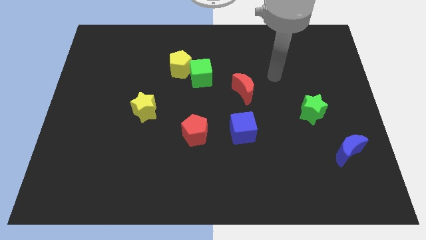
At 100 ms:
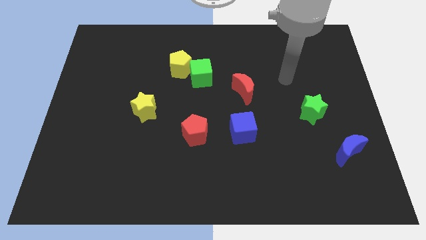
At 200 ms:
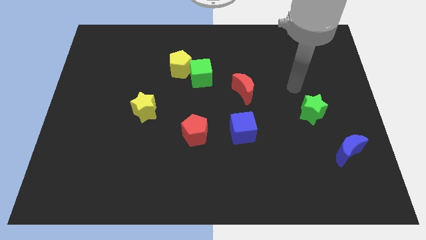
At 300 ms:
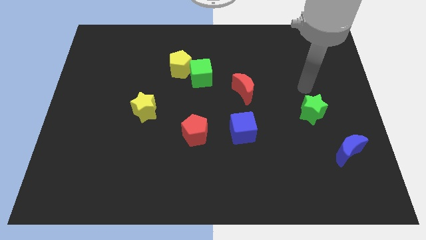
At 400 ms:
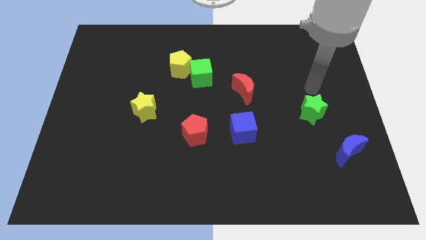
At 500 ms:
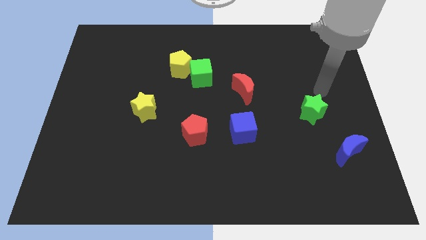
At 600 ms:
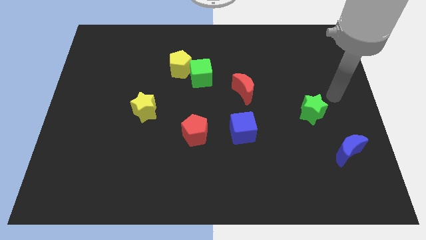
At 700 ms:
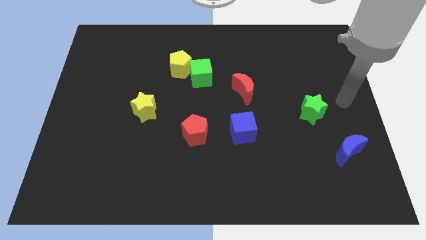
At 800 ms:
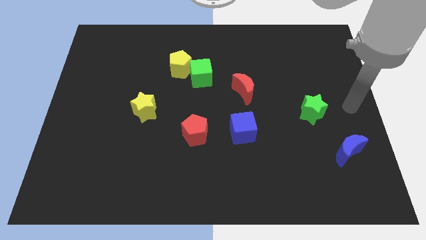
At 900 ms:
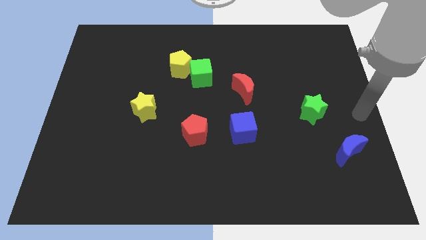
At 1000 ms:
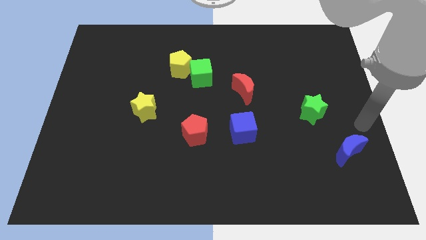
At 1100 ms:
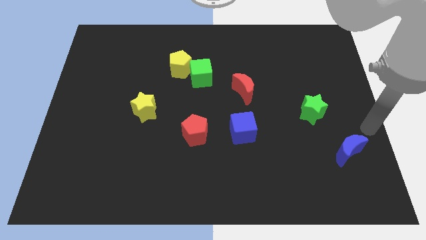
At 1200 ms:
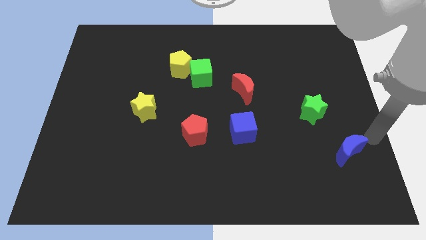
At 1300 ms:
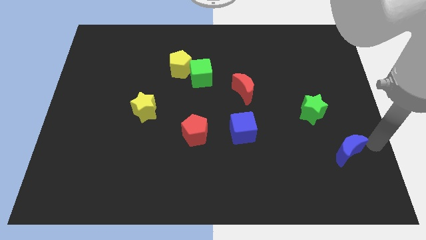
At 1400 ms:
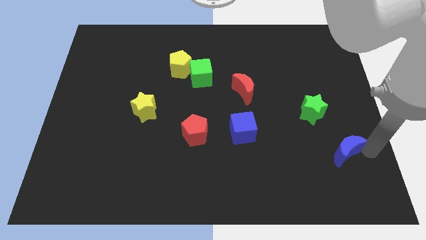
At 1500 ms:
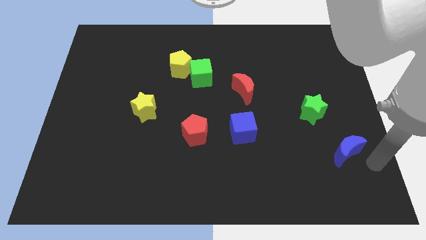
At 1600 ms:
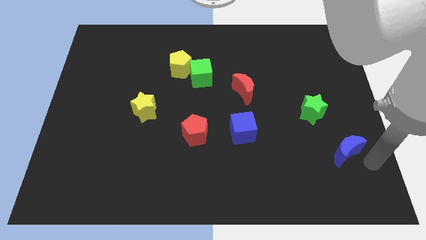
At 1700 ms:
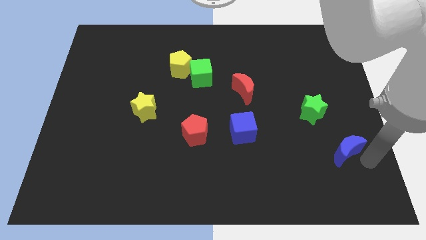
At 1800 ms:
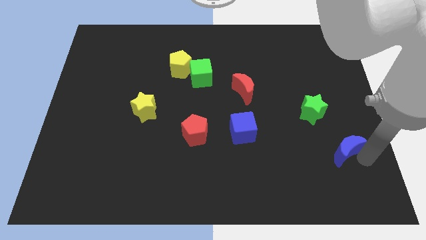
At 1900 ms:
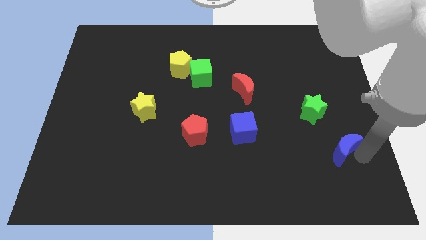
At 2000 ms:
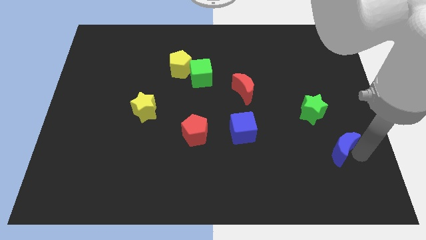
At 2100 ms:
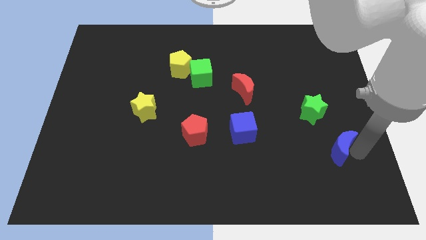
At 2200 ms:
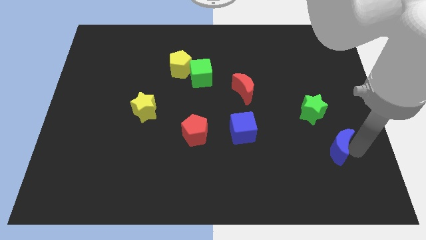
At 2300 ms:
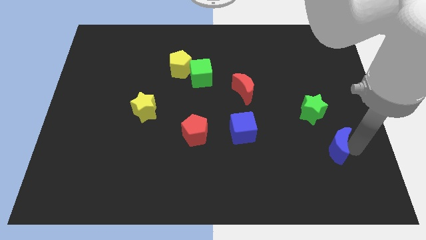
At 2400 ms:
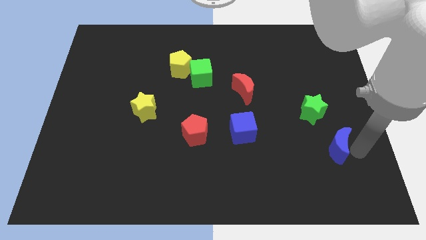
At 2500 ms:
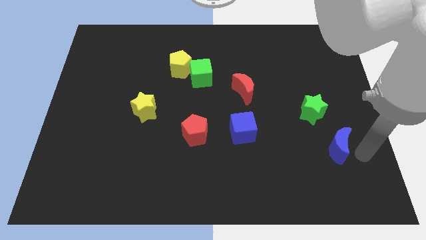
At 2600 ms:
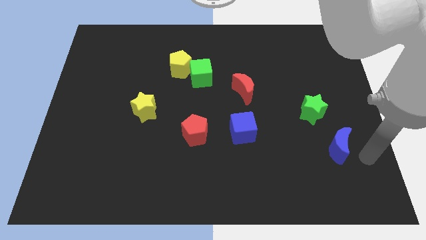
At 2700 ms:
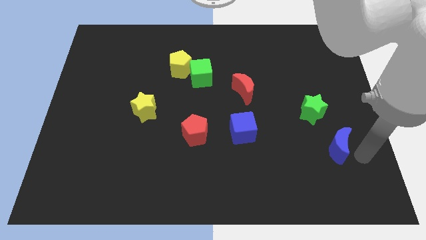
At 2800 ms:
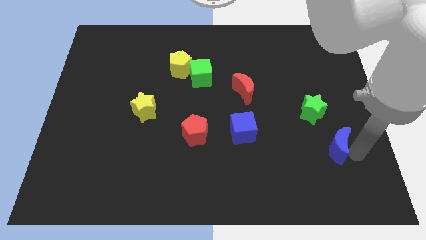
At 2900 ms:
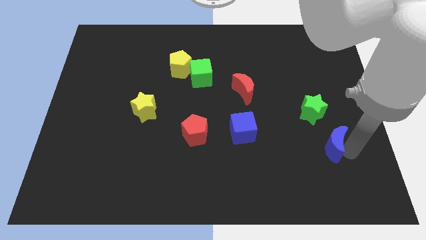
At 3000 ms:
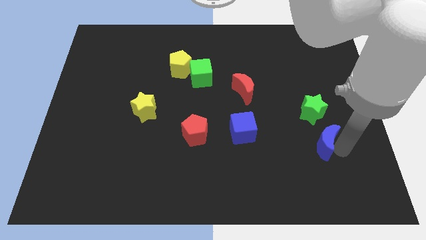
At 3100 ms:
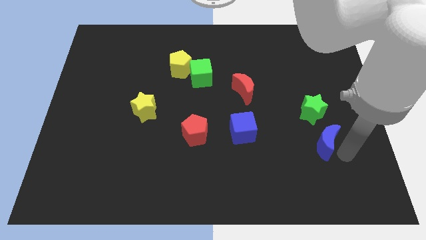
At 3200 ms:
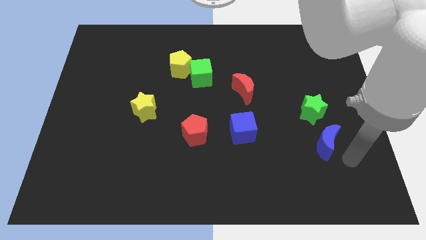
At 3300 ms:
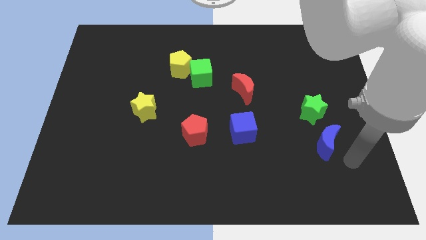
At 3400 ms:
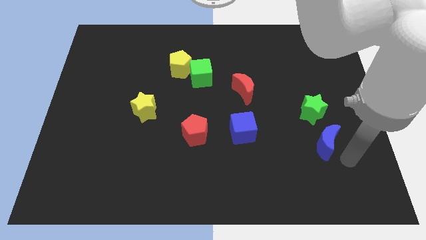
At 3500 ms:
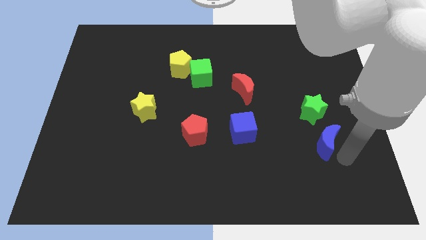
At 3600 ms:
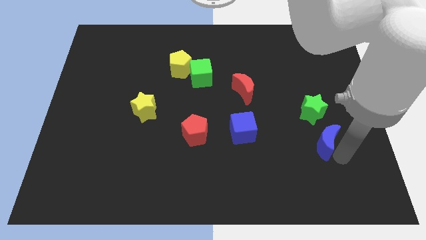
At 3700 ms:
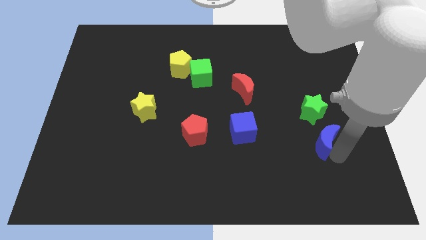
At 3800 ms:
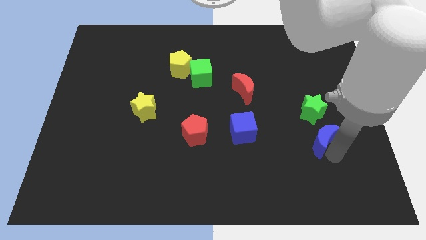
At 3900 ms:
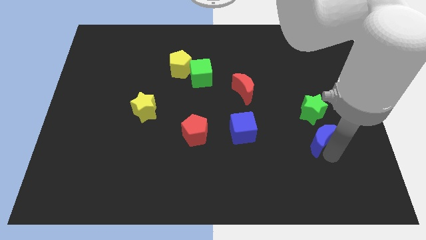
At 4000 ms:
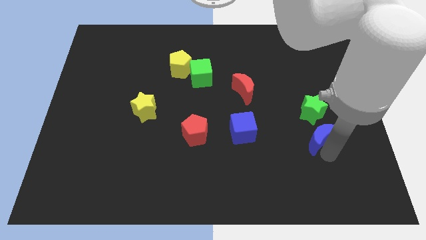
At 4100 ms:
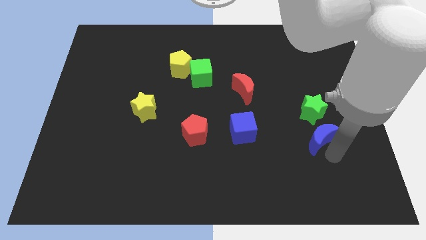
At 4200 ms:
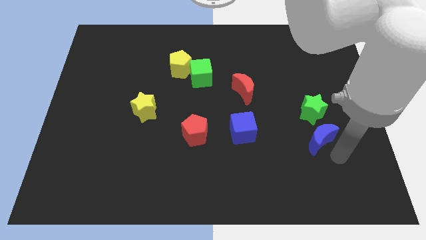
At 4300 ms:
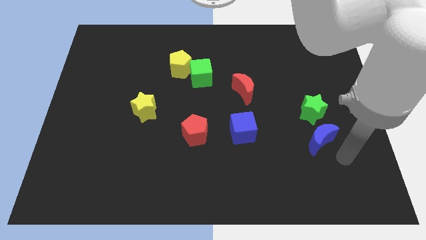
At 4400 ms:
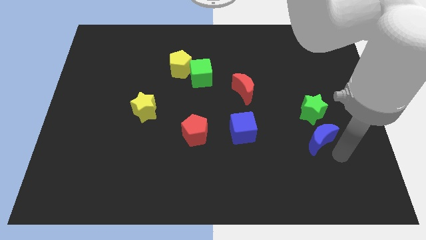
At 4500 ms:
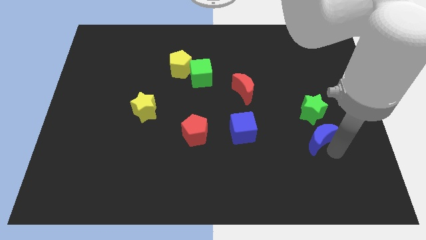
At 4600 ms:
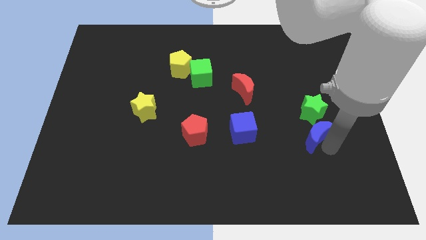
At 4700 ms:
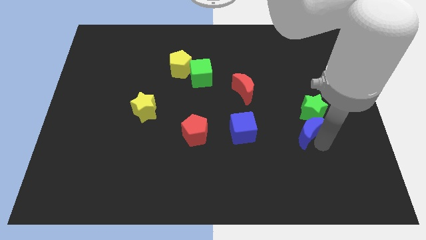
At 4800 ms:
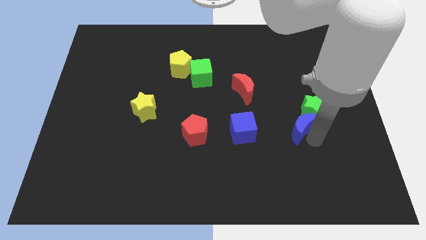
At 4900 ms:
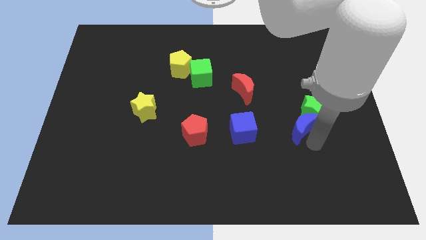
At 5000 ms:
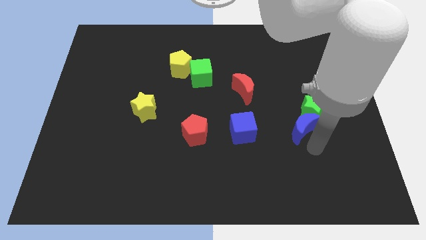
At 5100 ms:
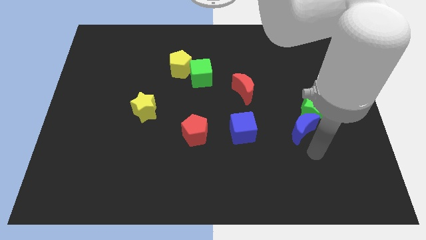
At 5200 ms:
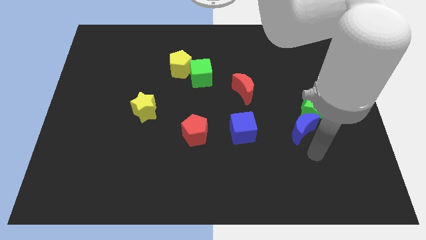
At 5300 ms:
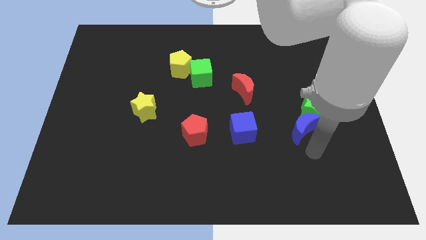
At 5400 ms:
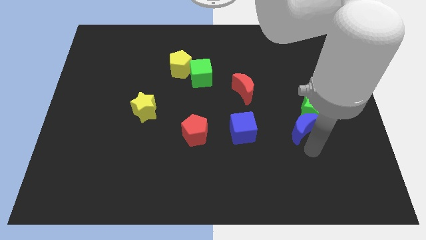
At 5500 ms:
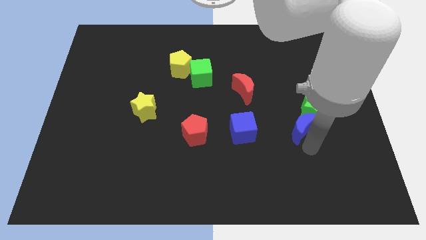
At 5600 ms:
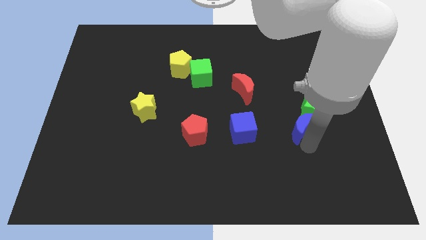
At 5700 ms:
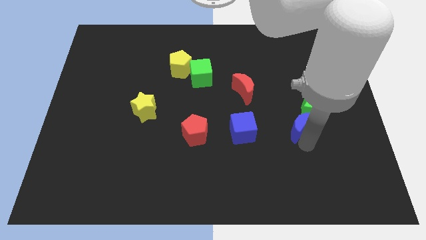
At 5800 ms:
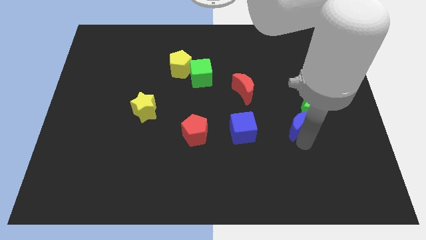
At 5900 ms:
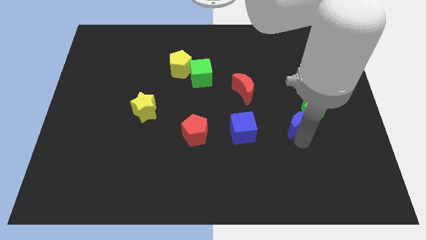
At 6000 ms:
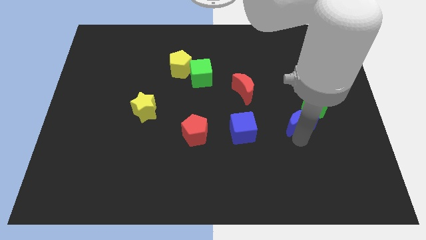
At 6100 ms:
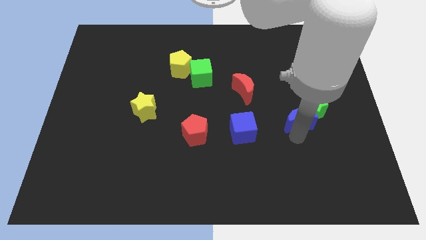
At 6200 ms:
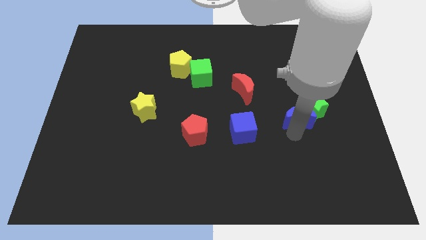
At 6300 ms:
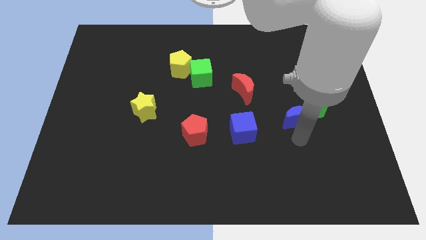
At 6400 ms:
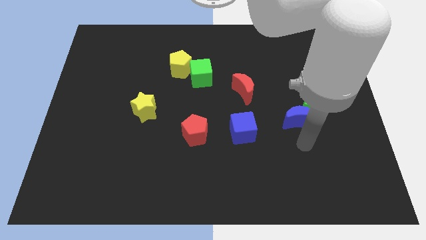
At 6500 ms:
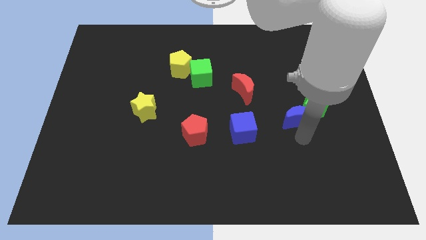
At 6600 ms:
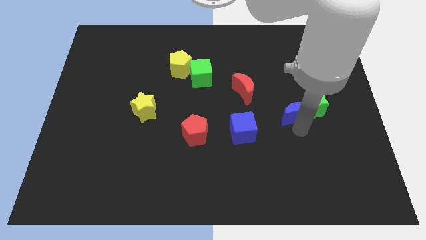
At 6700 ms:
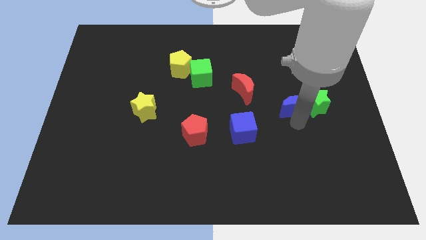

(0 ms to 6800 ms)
move the blue moon to the top left of the green star

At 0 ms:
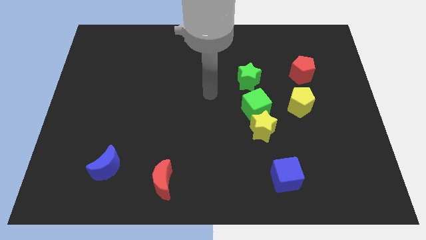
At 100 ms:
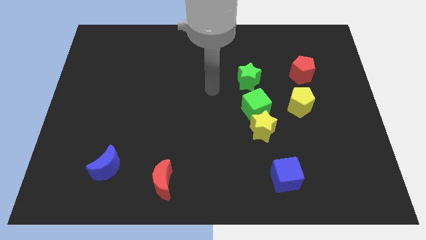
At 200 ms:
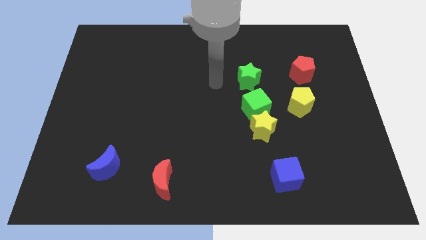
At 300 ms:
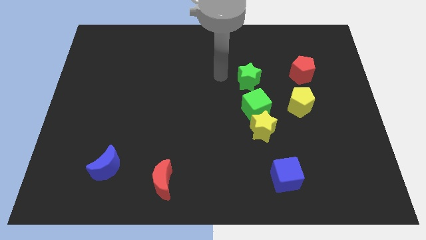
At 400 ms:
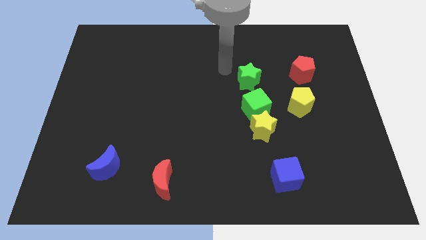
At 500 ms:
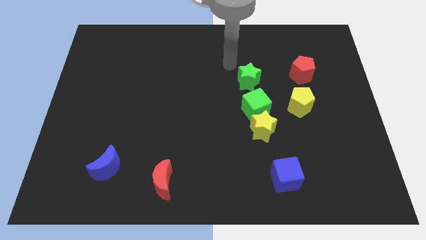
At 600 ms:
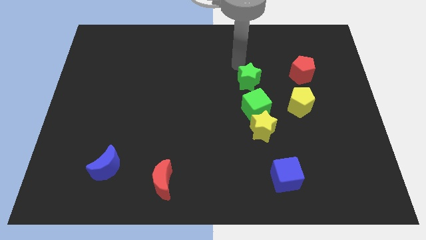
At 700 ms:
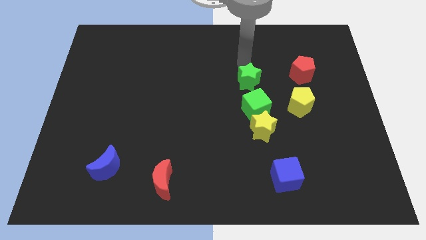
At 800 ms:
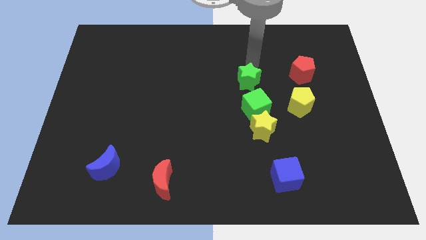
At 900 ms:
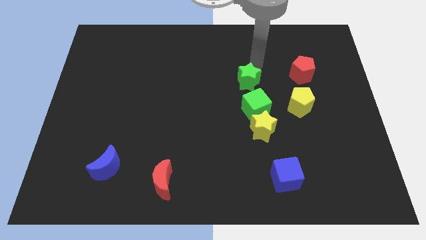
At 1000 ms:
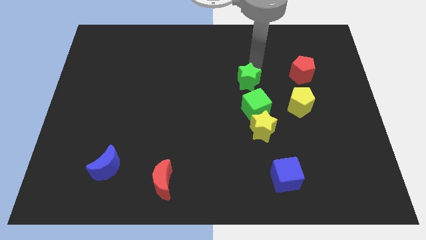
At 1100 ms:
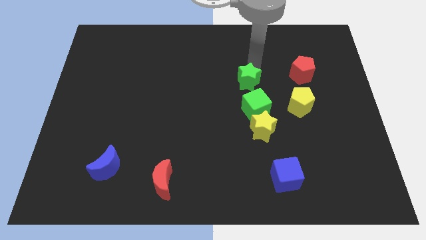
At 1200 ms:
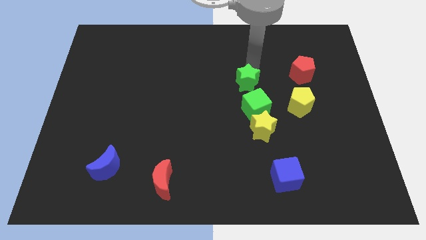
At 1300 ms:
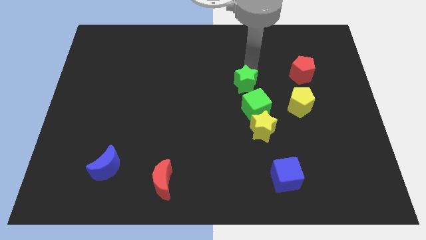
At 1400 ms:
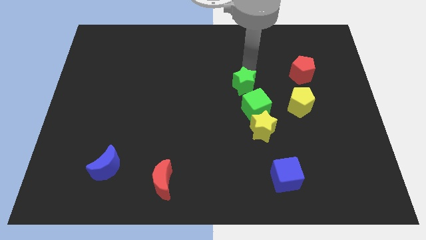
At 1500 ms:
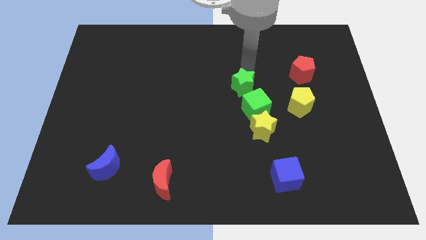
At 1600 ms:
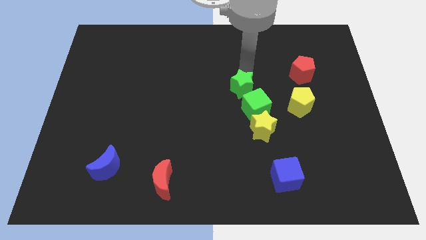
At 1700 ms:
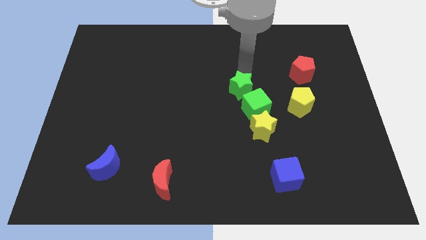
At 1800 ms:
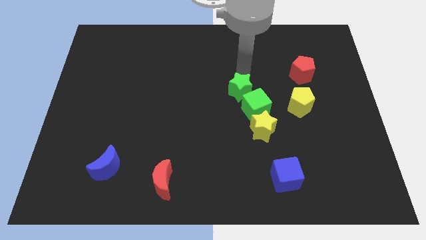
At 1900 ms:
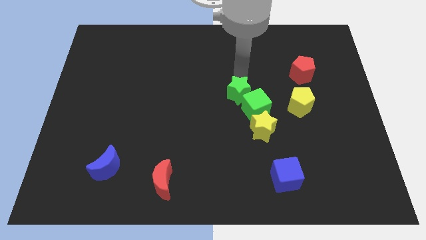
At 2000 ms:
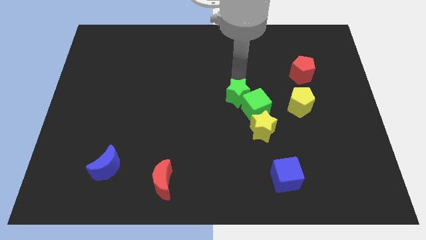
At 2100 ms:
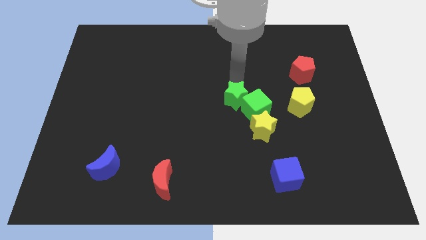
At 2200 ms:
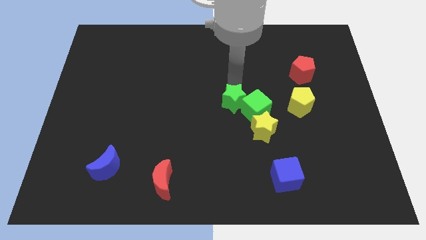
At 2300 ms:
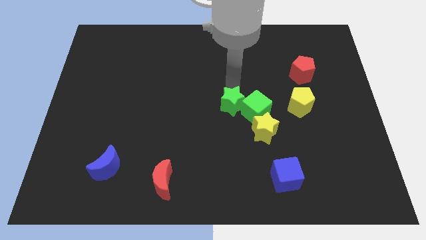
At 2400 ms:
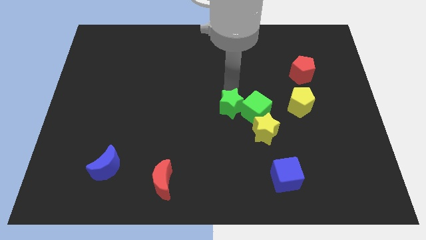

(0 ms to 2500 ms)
push the green star to the bottom left of the green cube
